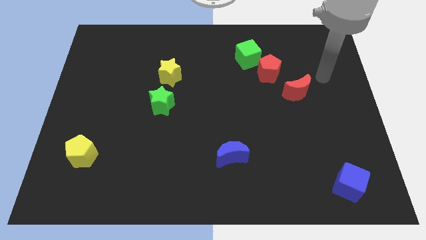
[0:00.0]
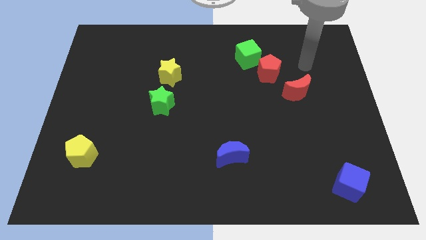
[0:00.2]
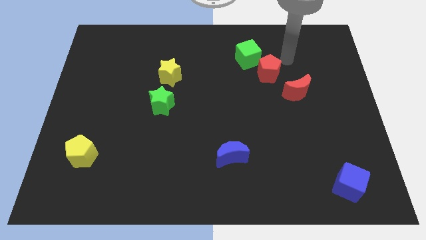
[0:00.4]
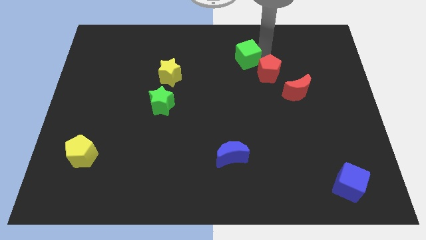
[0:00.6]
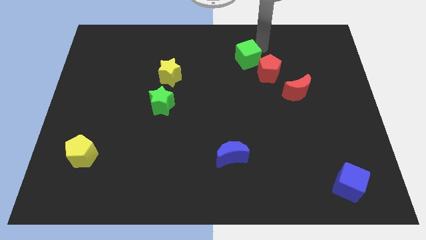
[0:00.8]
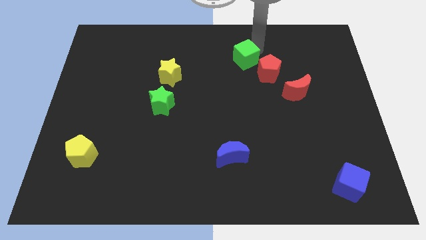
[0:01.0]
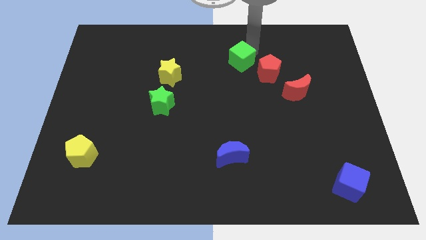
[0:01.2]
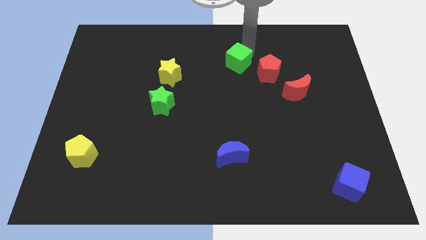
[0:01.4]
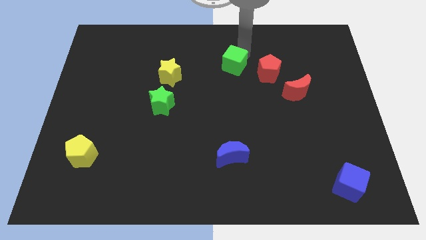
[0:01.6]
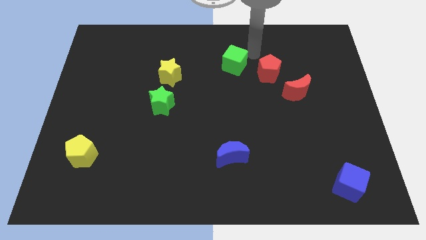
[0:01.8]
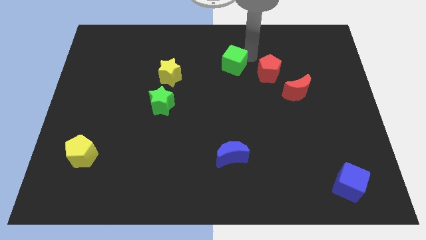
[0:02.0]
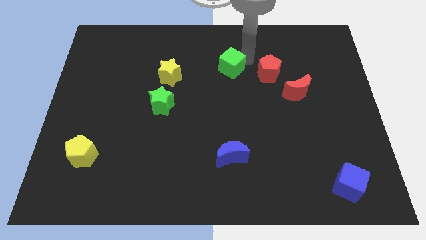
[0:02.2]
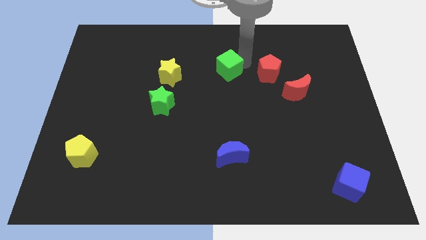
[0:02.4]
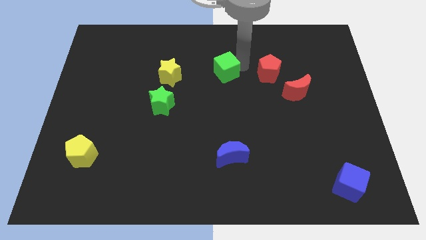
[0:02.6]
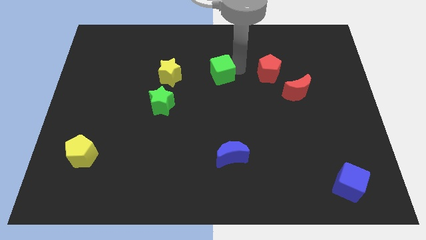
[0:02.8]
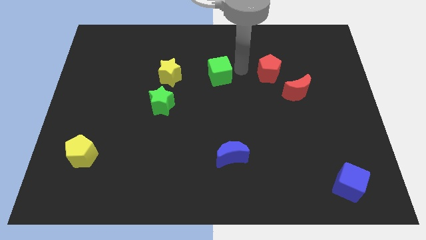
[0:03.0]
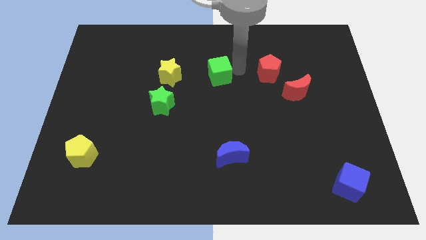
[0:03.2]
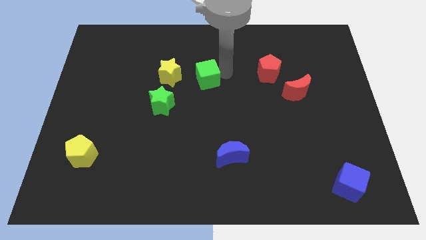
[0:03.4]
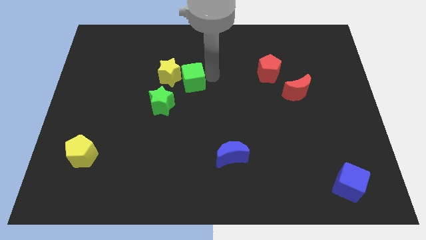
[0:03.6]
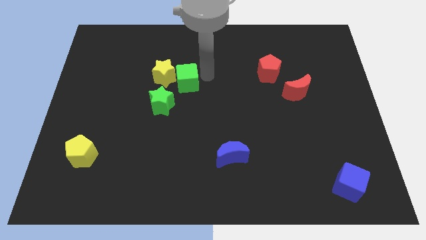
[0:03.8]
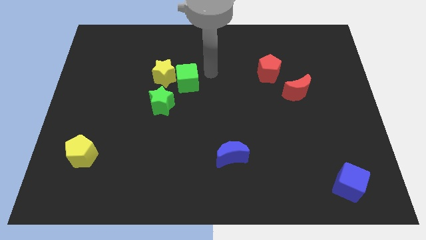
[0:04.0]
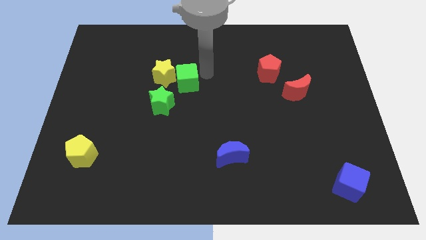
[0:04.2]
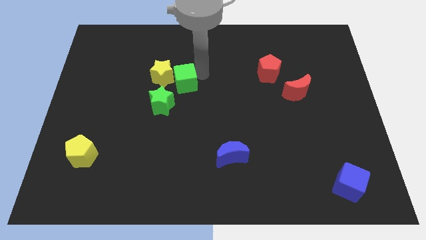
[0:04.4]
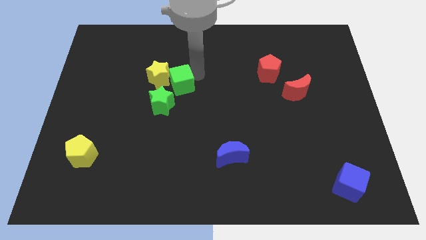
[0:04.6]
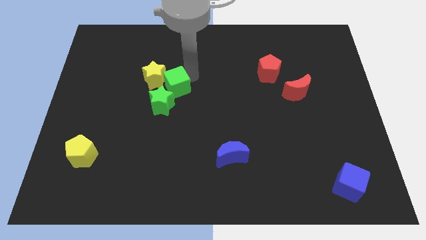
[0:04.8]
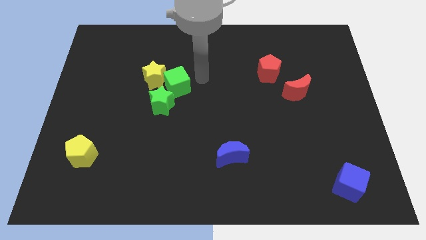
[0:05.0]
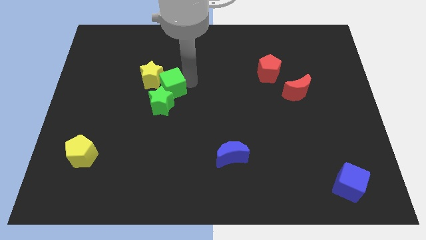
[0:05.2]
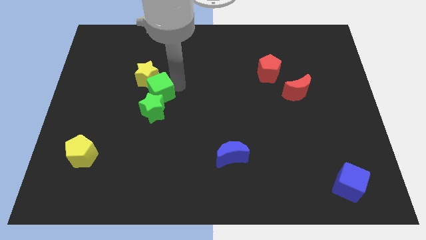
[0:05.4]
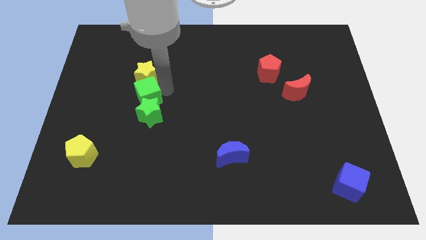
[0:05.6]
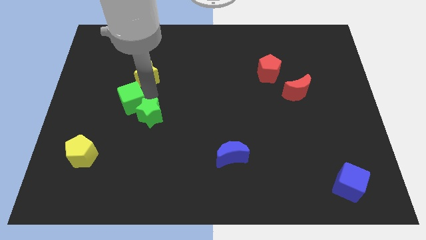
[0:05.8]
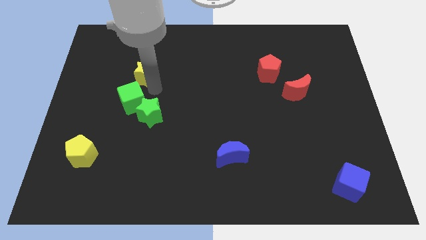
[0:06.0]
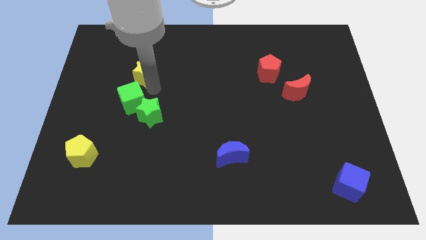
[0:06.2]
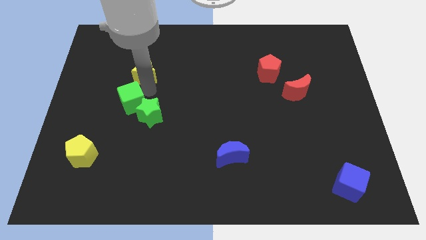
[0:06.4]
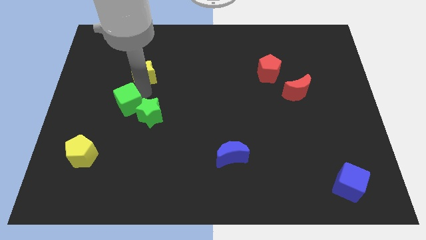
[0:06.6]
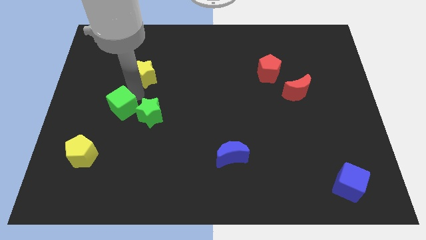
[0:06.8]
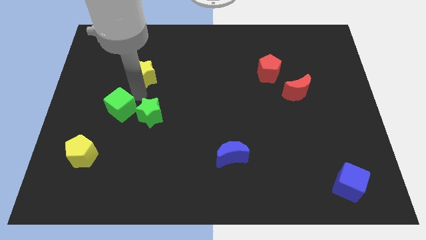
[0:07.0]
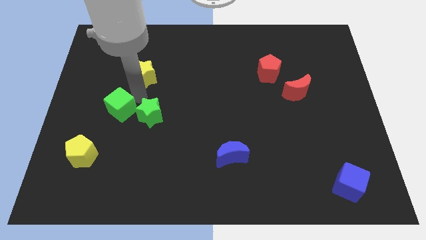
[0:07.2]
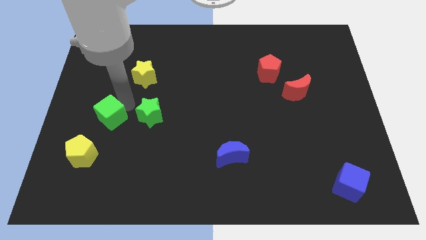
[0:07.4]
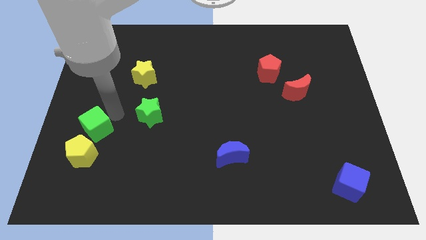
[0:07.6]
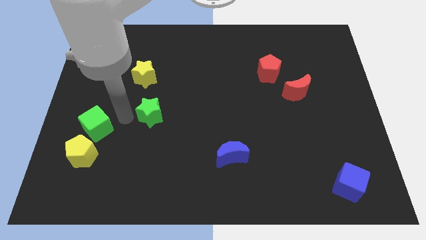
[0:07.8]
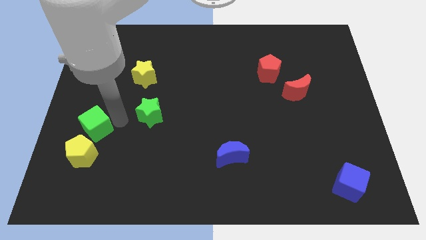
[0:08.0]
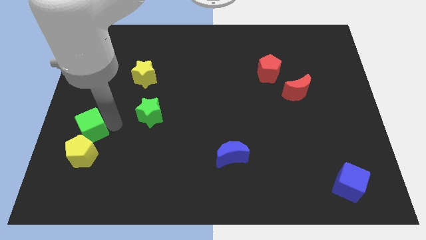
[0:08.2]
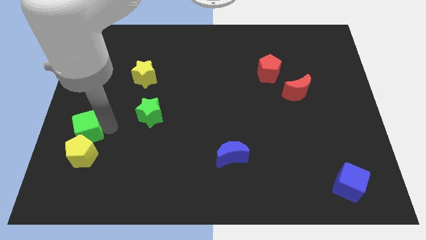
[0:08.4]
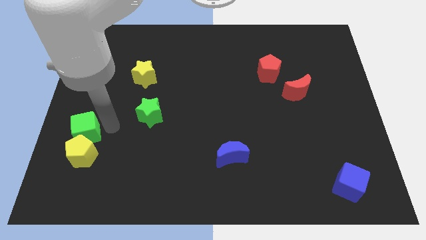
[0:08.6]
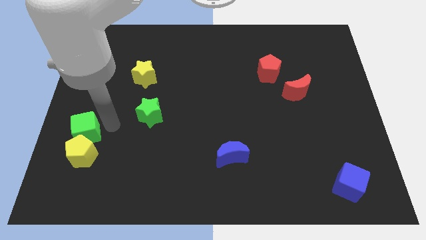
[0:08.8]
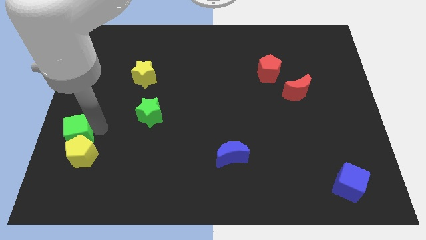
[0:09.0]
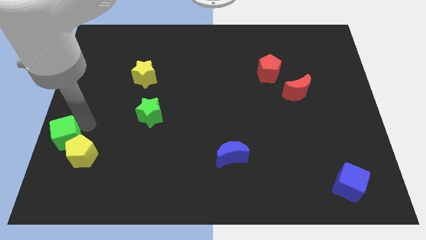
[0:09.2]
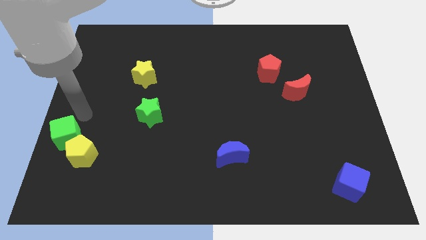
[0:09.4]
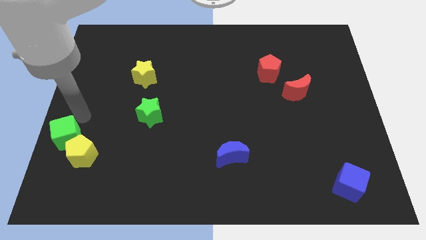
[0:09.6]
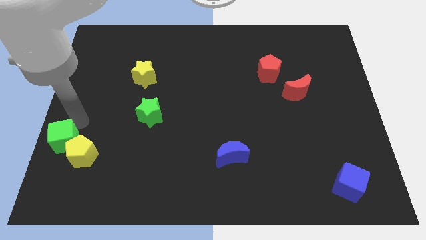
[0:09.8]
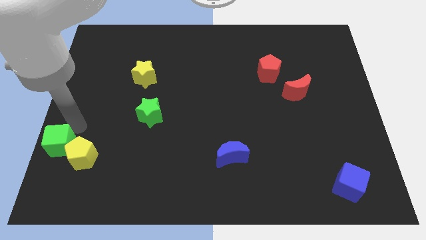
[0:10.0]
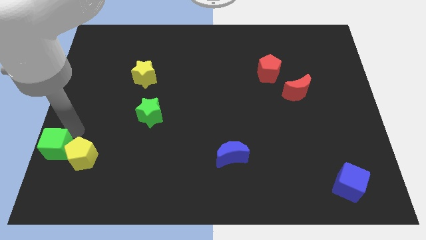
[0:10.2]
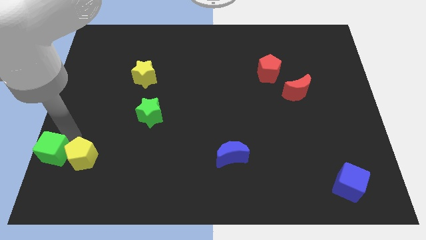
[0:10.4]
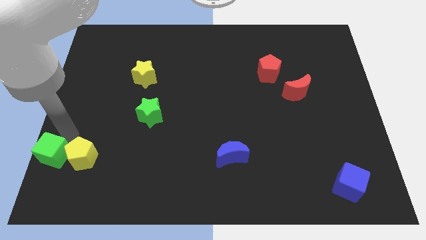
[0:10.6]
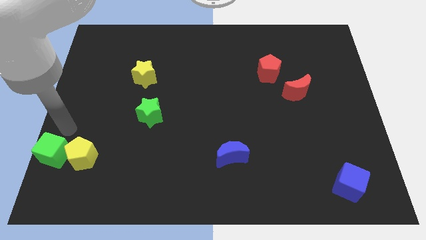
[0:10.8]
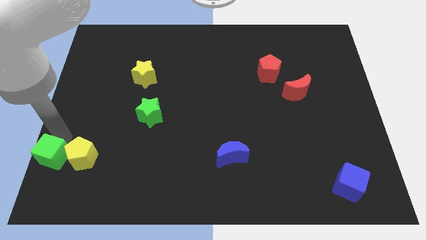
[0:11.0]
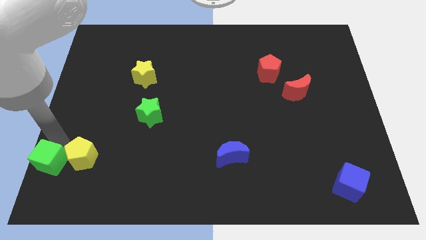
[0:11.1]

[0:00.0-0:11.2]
slide the green cube to the lower left corner
